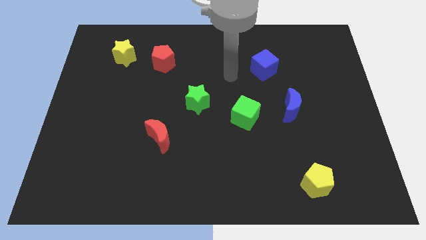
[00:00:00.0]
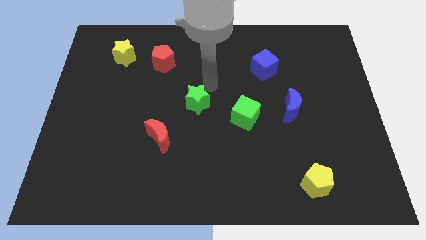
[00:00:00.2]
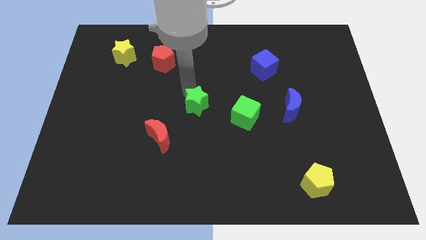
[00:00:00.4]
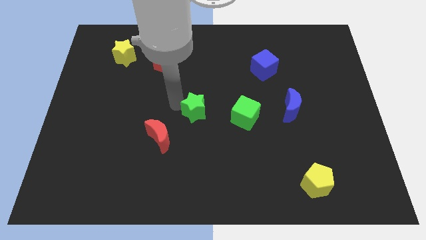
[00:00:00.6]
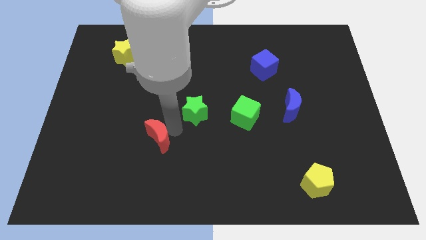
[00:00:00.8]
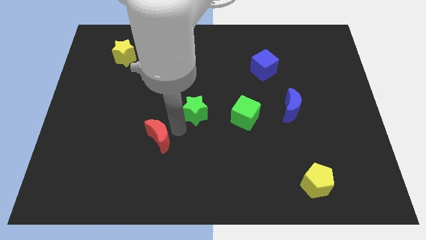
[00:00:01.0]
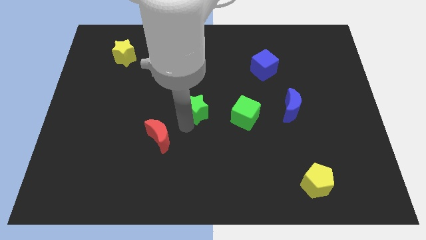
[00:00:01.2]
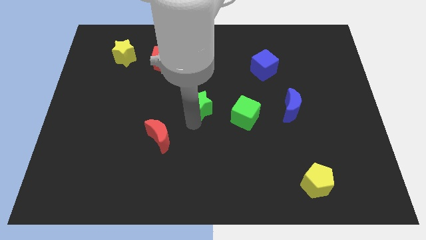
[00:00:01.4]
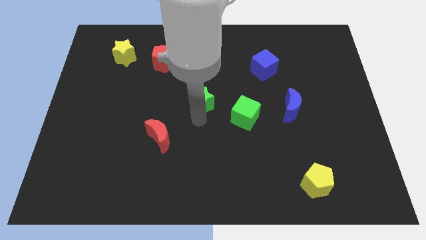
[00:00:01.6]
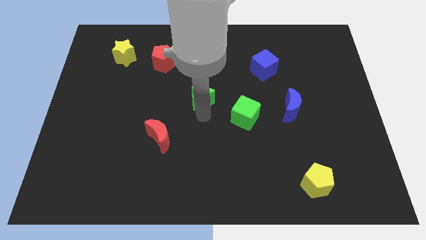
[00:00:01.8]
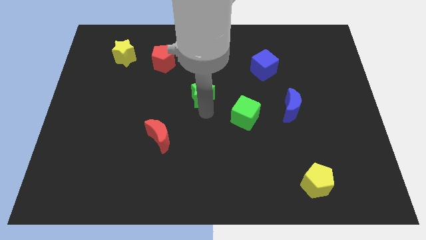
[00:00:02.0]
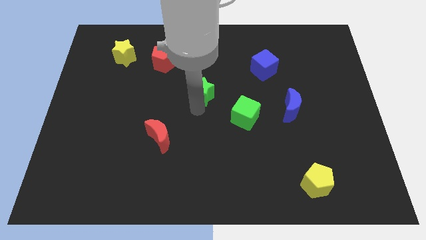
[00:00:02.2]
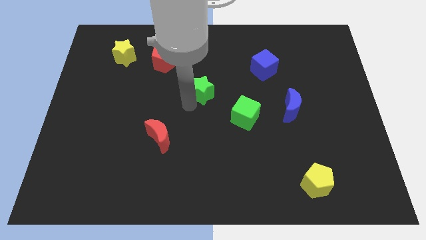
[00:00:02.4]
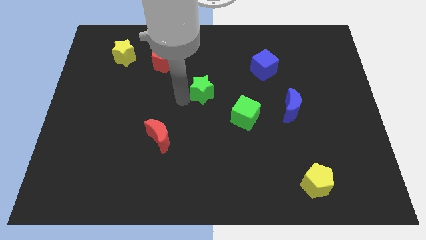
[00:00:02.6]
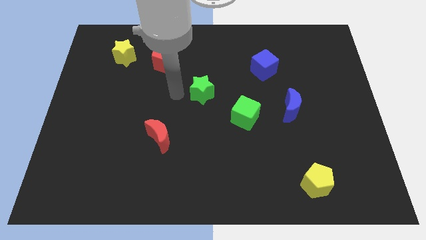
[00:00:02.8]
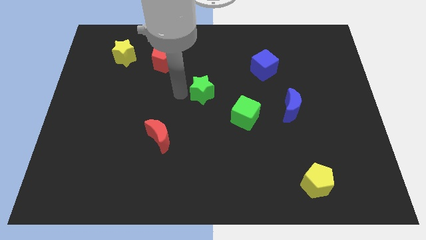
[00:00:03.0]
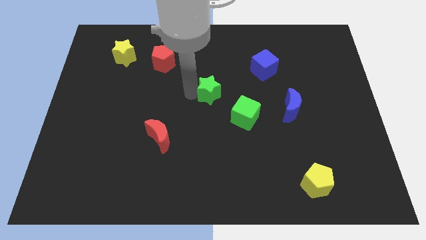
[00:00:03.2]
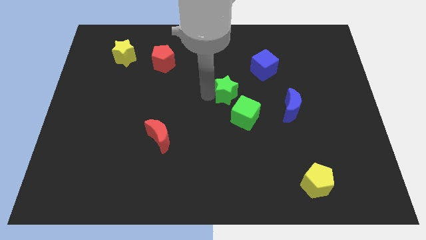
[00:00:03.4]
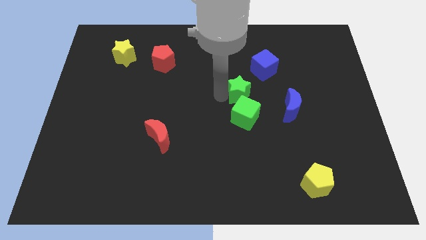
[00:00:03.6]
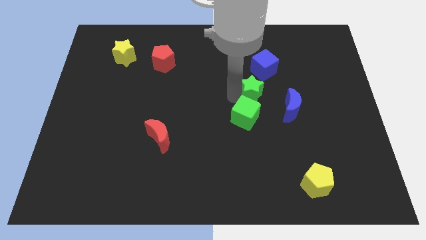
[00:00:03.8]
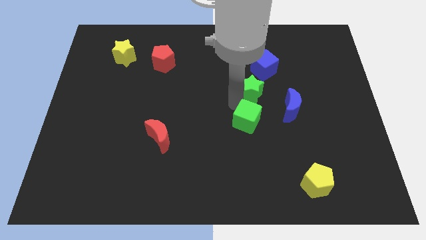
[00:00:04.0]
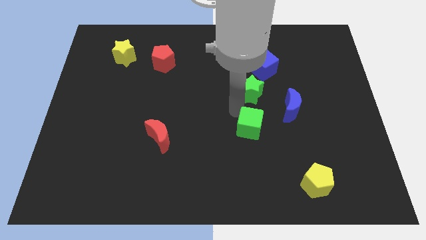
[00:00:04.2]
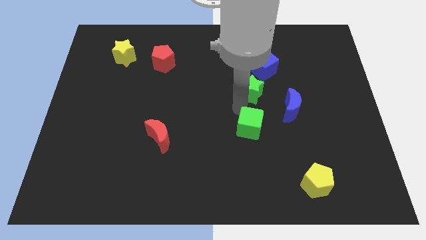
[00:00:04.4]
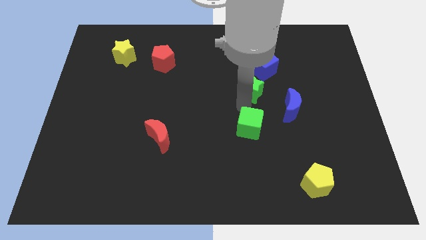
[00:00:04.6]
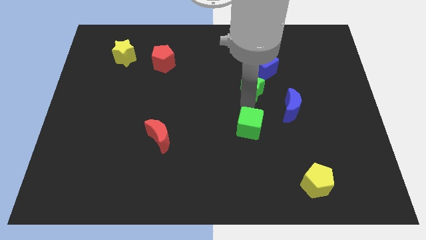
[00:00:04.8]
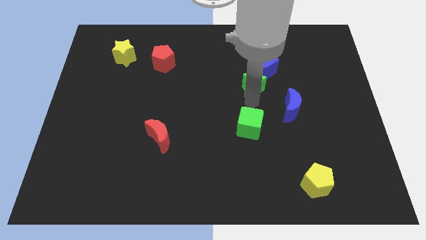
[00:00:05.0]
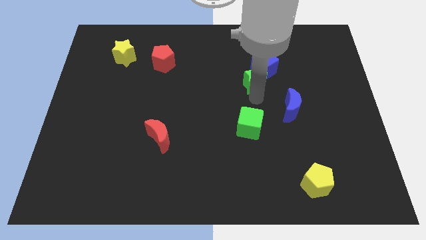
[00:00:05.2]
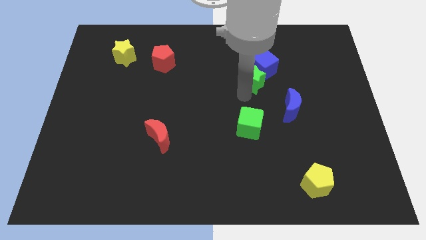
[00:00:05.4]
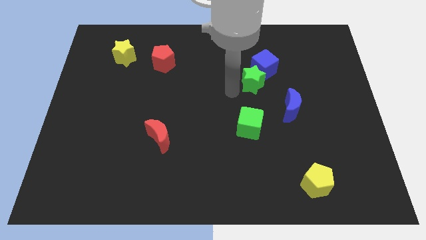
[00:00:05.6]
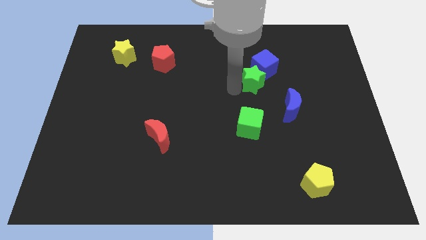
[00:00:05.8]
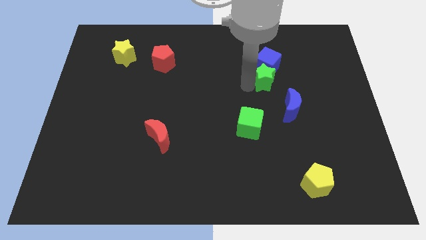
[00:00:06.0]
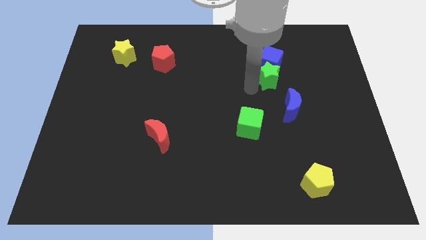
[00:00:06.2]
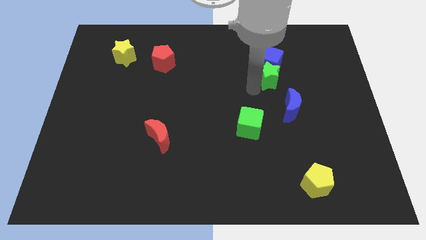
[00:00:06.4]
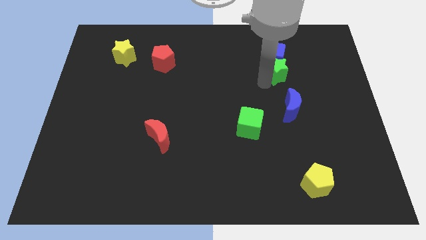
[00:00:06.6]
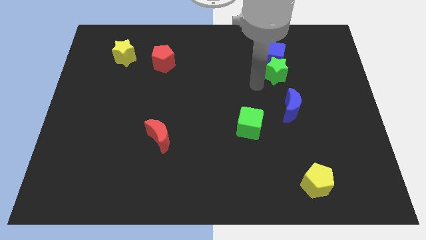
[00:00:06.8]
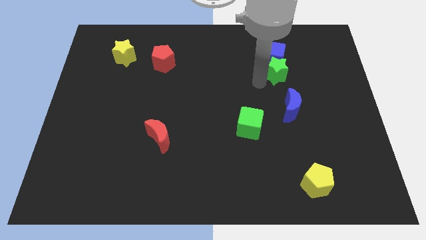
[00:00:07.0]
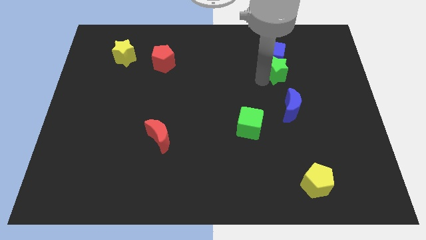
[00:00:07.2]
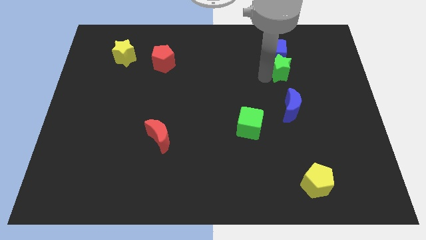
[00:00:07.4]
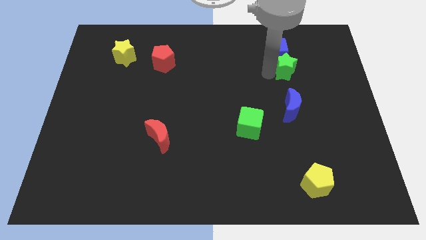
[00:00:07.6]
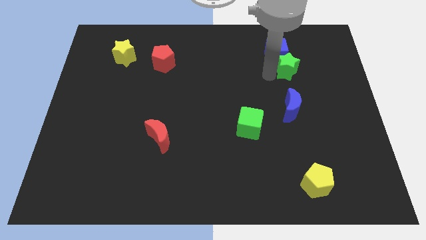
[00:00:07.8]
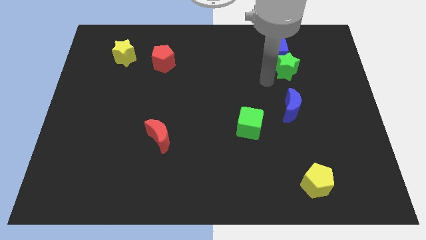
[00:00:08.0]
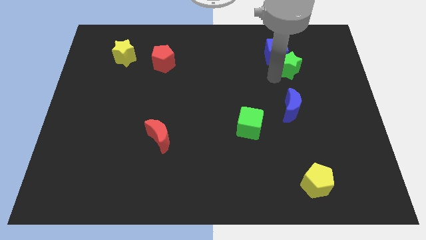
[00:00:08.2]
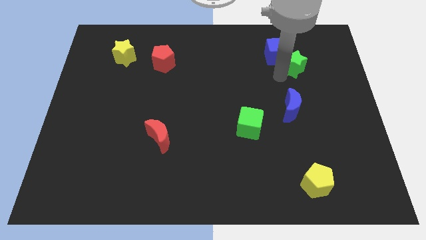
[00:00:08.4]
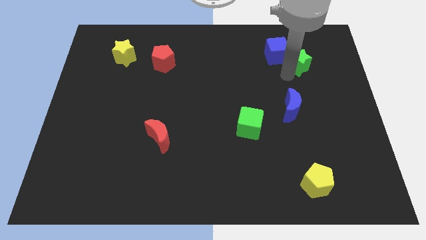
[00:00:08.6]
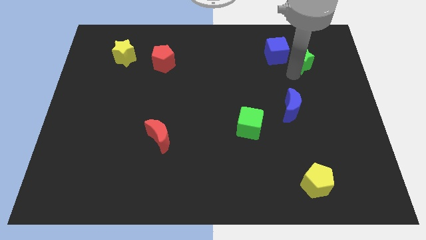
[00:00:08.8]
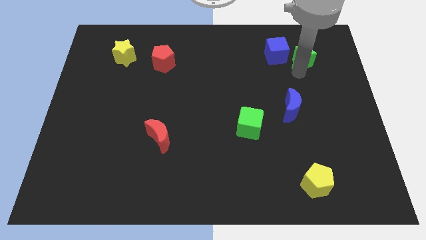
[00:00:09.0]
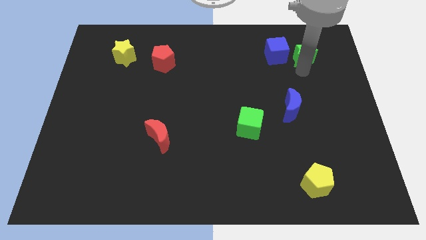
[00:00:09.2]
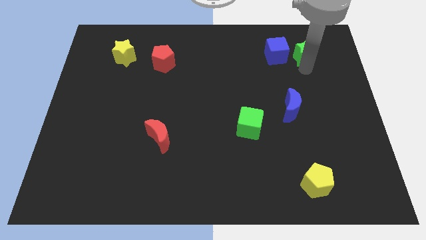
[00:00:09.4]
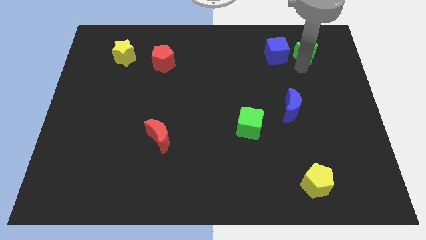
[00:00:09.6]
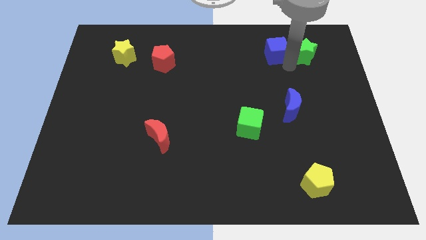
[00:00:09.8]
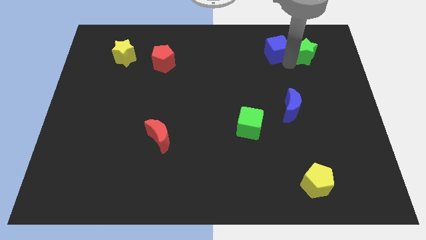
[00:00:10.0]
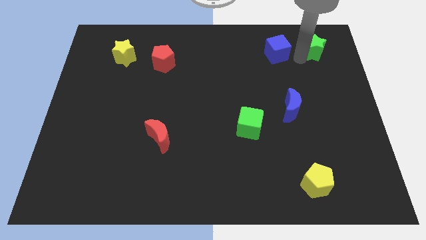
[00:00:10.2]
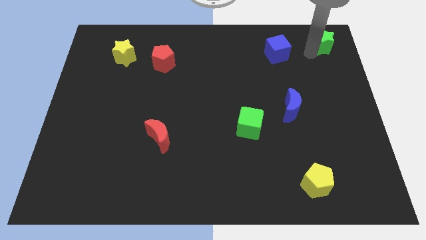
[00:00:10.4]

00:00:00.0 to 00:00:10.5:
slide the green star to the top right corner

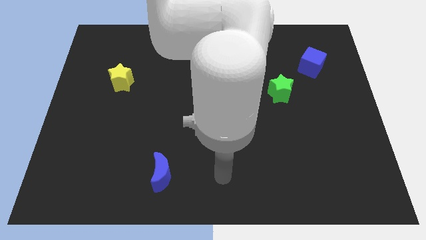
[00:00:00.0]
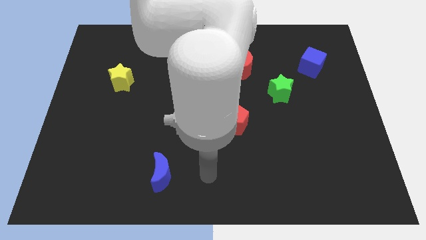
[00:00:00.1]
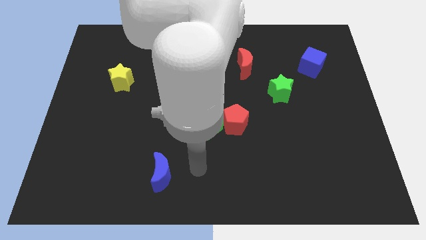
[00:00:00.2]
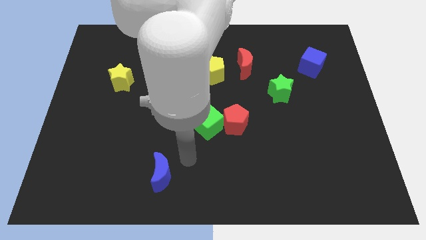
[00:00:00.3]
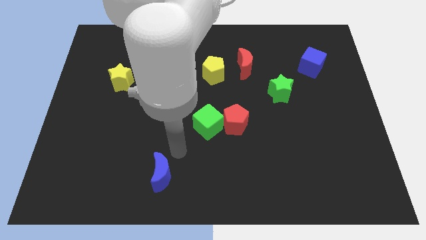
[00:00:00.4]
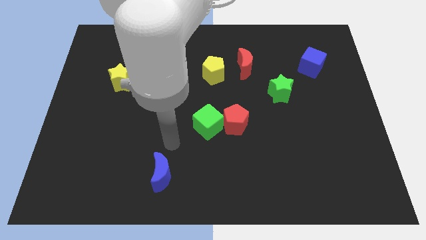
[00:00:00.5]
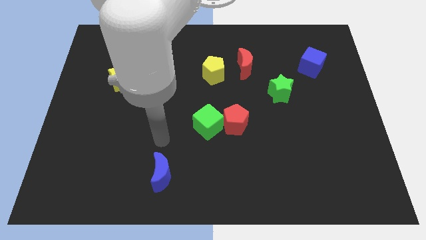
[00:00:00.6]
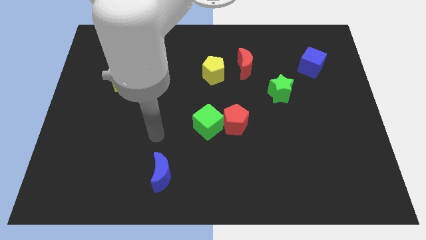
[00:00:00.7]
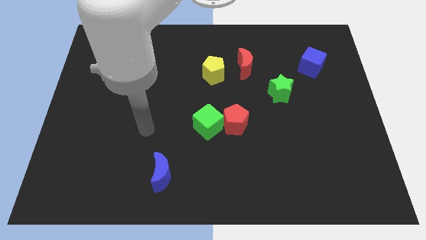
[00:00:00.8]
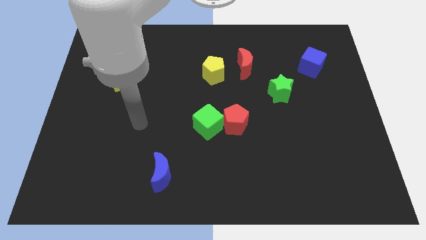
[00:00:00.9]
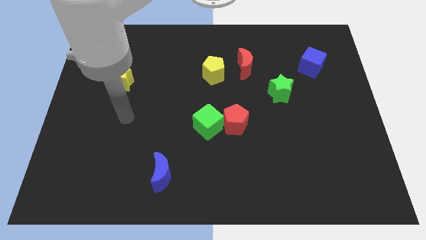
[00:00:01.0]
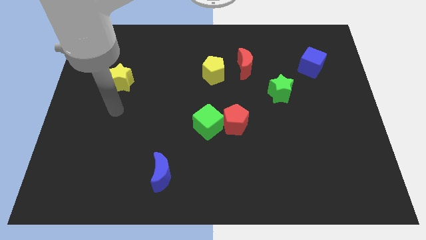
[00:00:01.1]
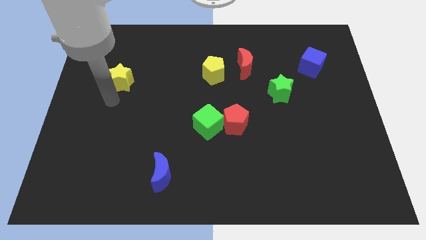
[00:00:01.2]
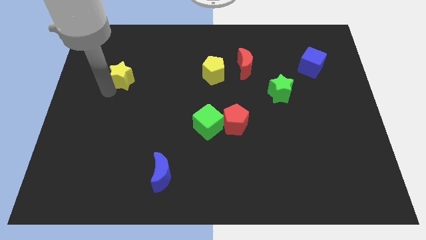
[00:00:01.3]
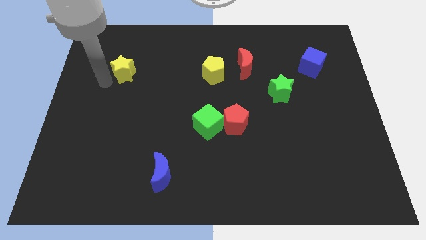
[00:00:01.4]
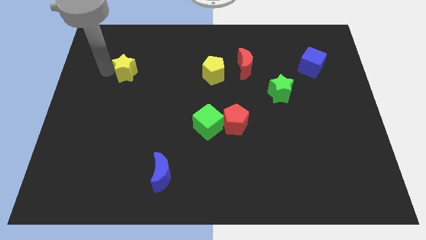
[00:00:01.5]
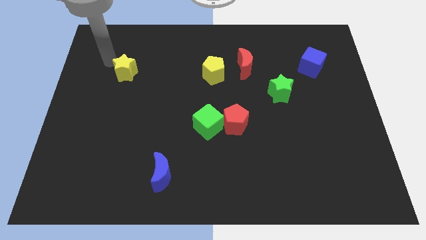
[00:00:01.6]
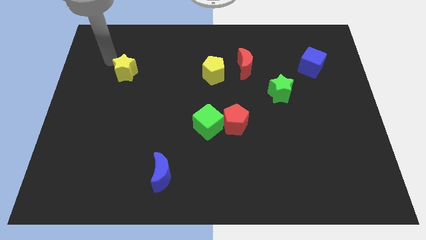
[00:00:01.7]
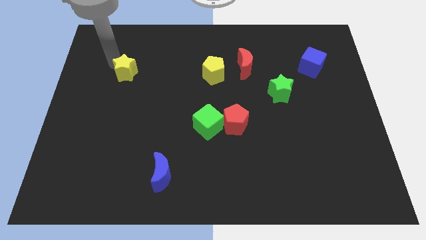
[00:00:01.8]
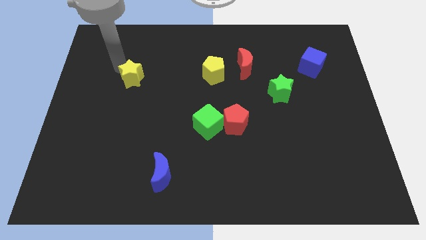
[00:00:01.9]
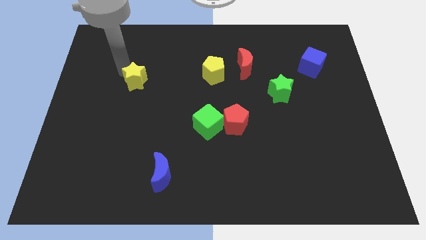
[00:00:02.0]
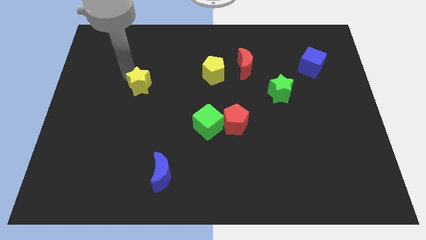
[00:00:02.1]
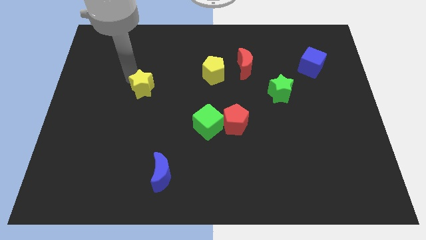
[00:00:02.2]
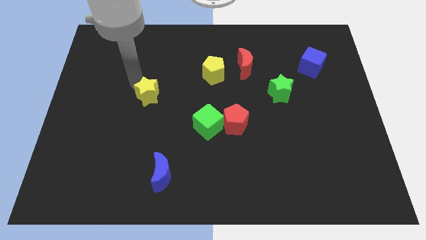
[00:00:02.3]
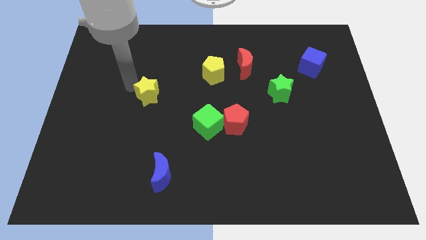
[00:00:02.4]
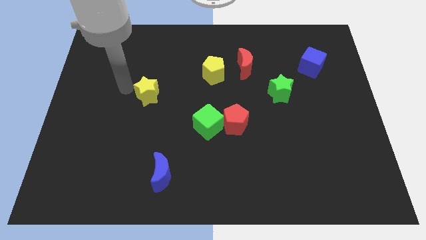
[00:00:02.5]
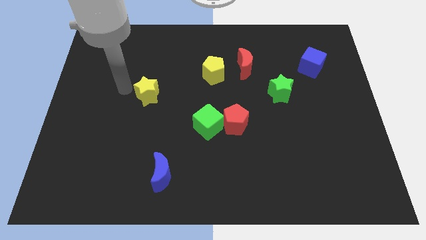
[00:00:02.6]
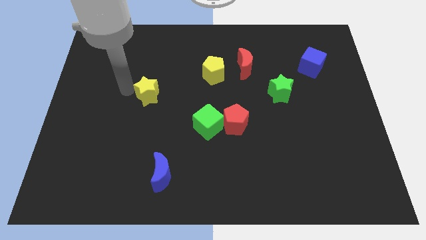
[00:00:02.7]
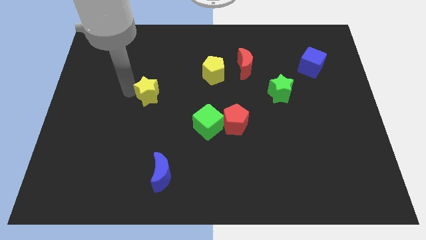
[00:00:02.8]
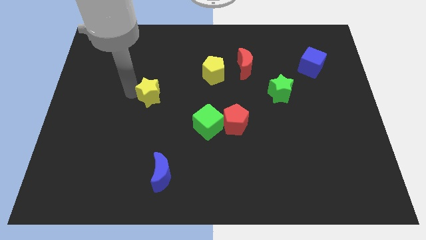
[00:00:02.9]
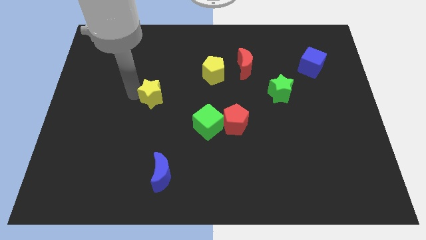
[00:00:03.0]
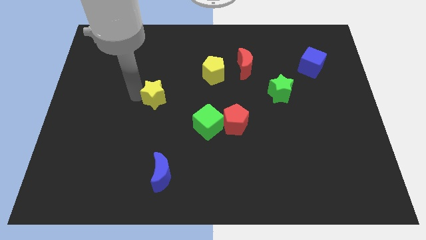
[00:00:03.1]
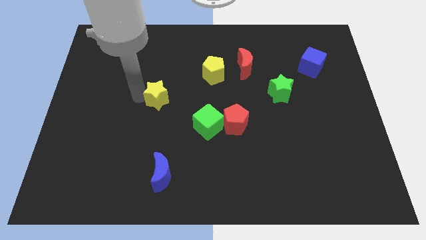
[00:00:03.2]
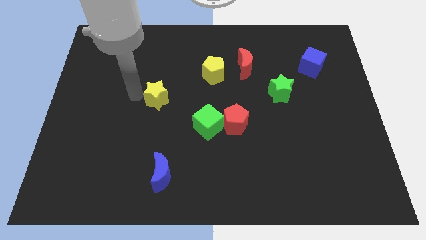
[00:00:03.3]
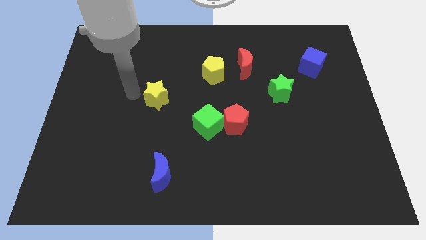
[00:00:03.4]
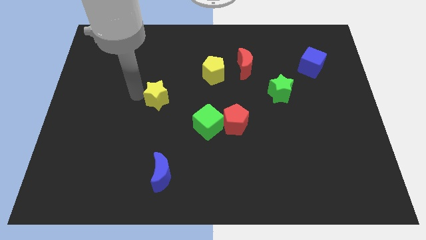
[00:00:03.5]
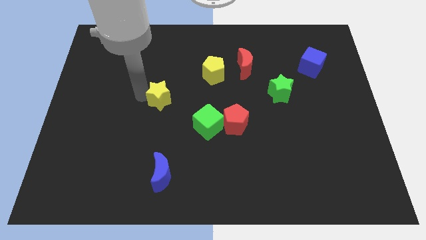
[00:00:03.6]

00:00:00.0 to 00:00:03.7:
move the yellow star to the center of the board
